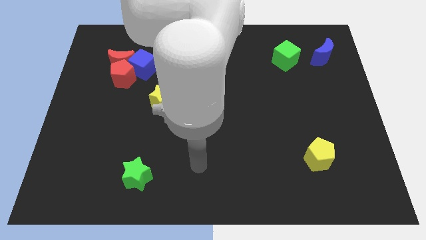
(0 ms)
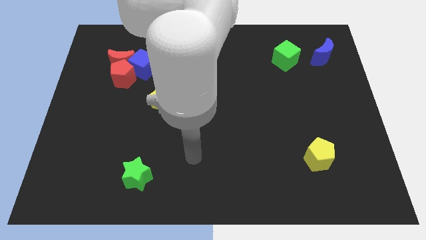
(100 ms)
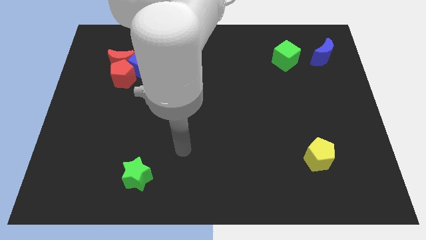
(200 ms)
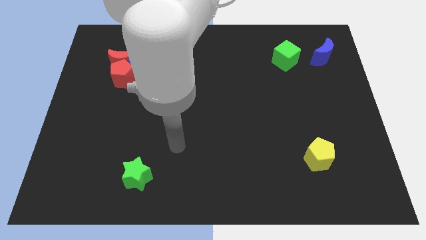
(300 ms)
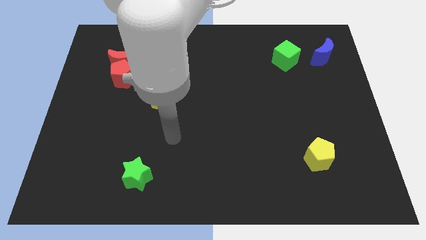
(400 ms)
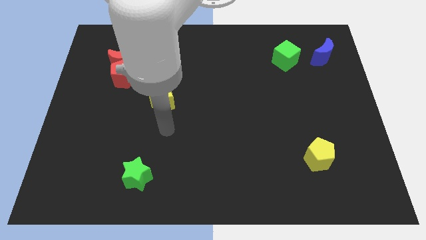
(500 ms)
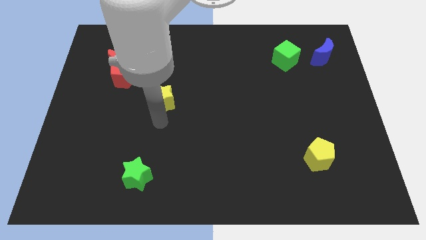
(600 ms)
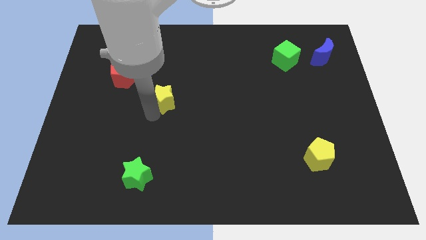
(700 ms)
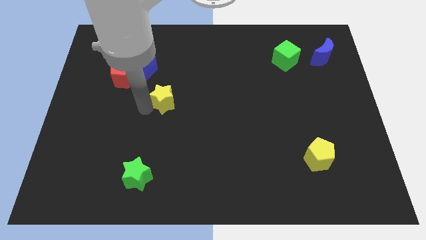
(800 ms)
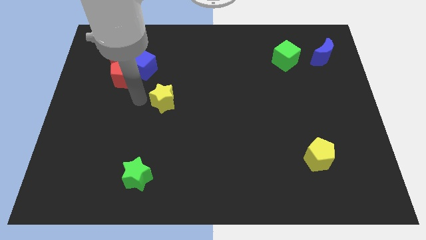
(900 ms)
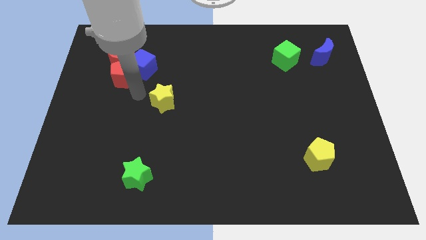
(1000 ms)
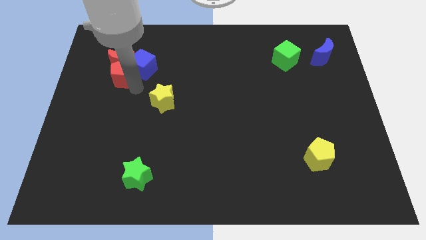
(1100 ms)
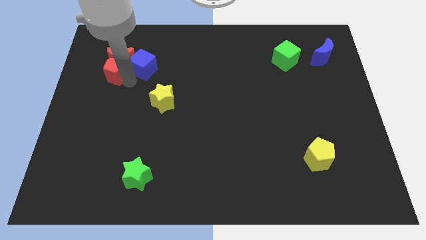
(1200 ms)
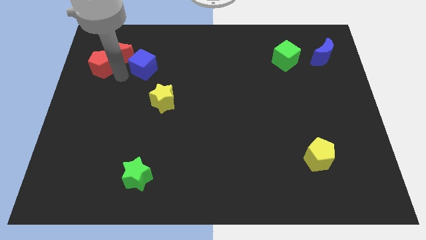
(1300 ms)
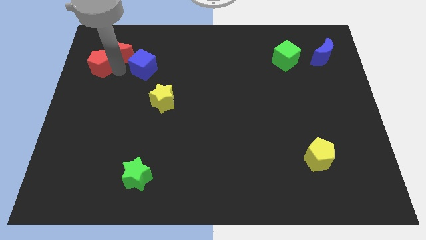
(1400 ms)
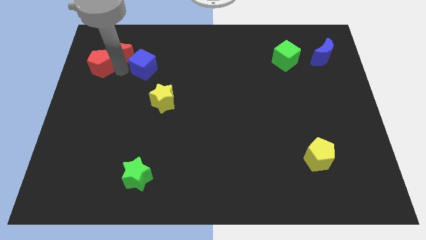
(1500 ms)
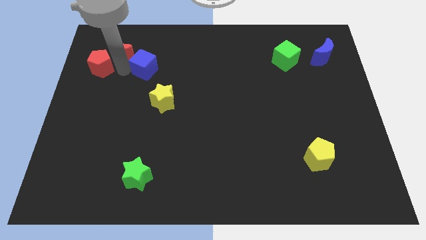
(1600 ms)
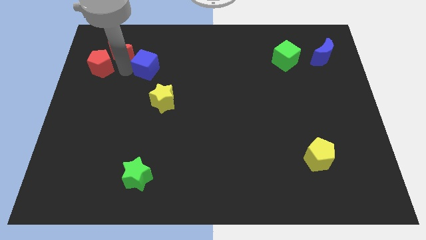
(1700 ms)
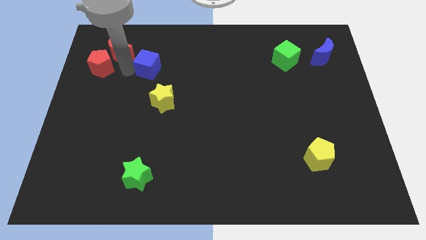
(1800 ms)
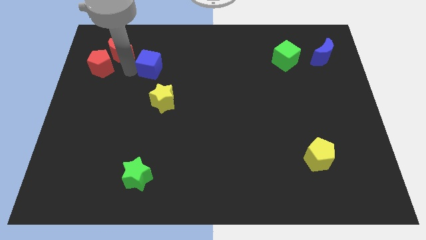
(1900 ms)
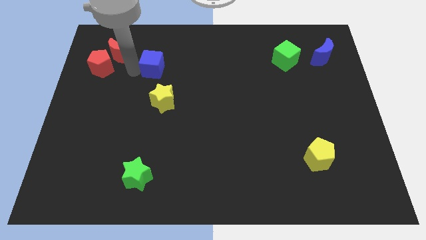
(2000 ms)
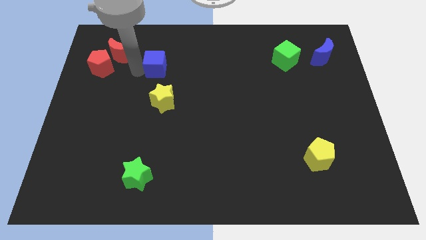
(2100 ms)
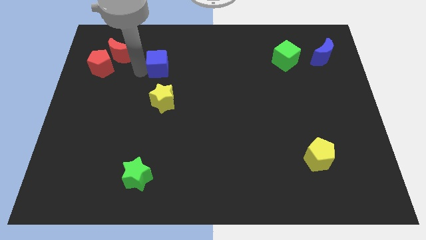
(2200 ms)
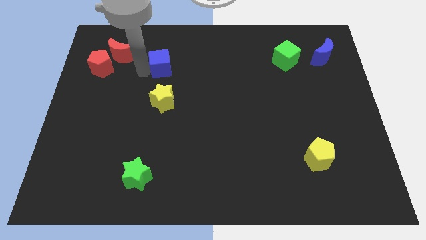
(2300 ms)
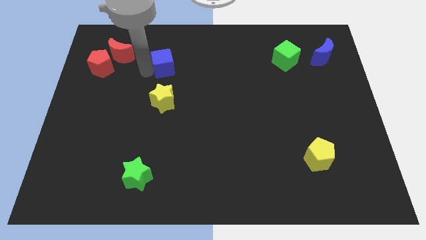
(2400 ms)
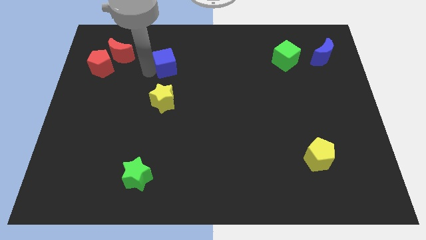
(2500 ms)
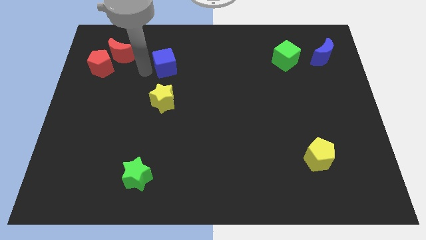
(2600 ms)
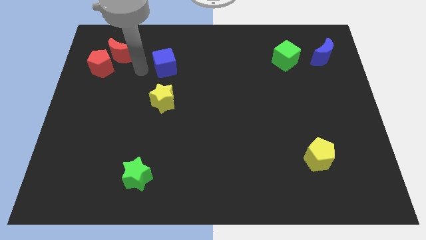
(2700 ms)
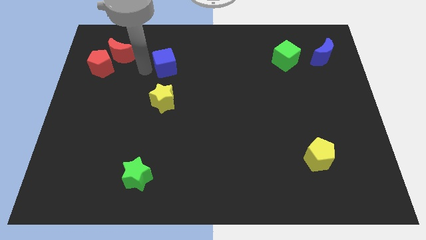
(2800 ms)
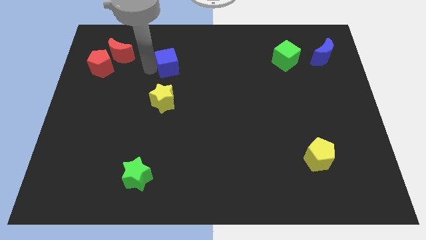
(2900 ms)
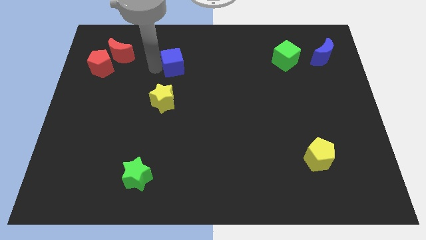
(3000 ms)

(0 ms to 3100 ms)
slightly push the blue cube to the right

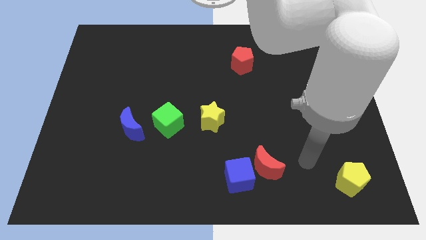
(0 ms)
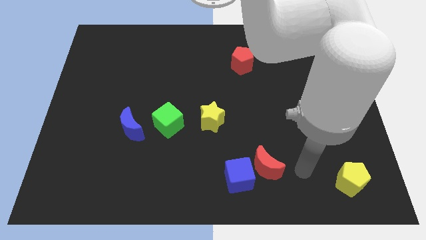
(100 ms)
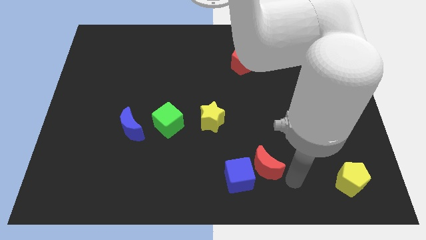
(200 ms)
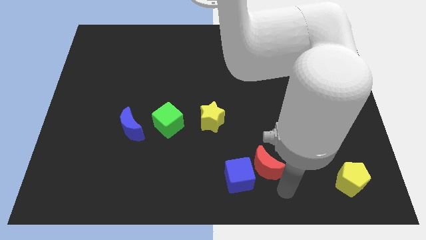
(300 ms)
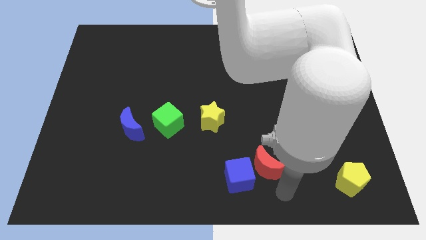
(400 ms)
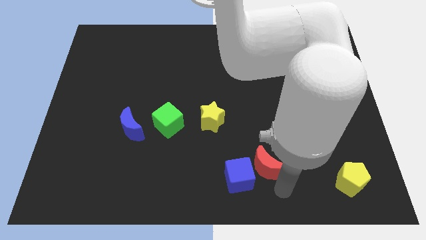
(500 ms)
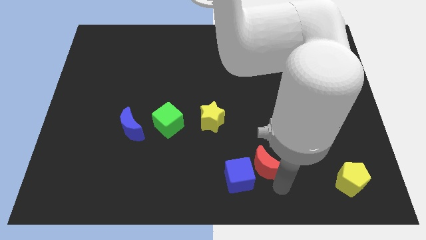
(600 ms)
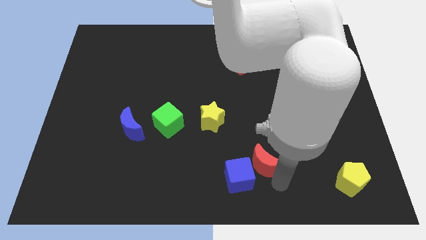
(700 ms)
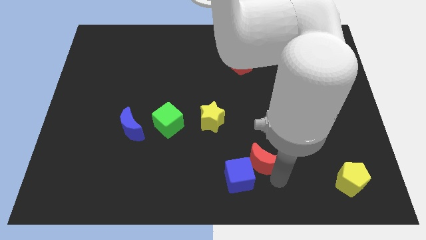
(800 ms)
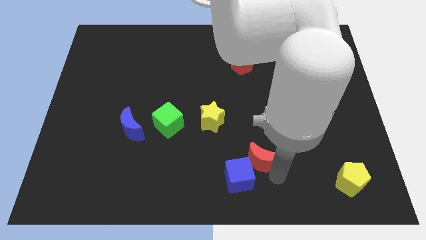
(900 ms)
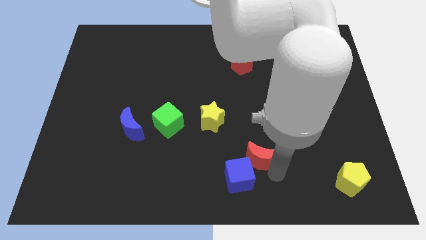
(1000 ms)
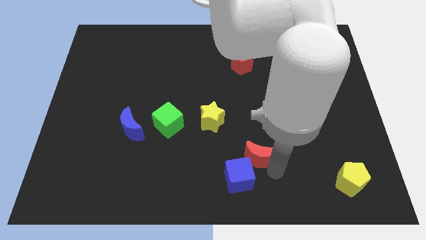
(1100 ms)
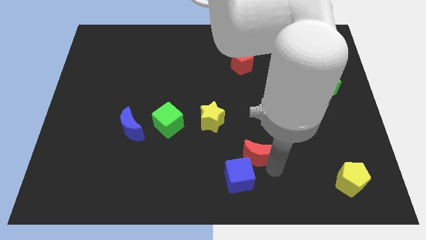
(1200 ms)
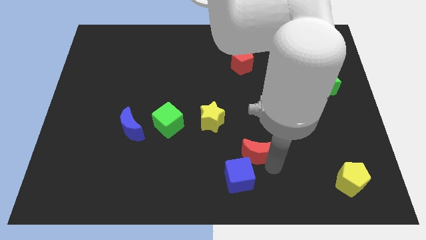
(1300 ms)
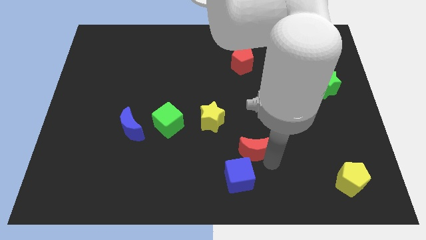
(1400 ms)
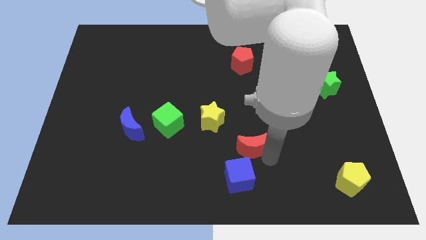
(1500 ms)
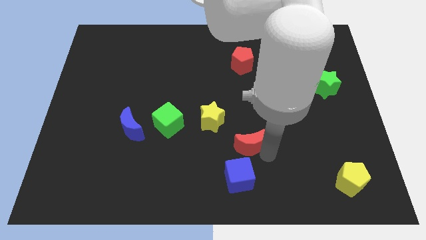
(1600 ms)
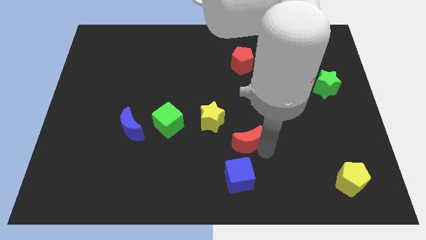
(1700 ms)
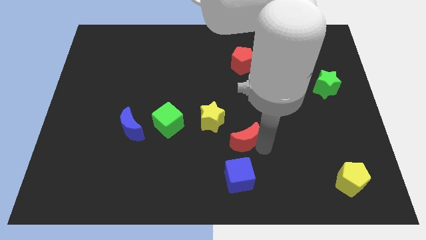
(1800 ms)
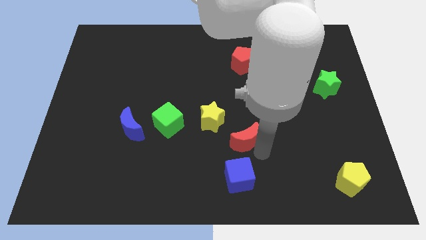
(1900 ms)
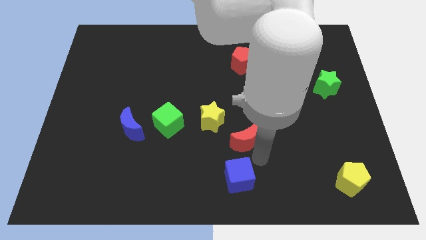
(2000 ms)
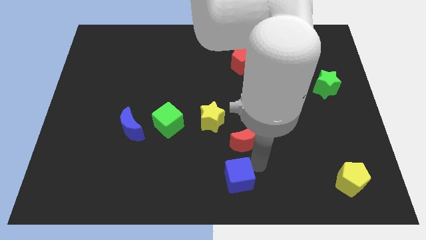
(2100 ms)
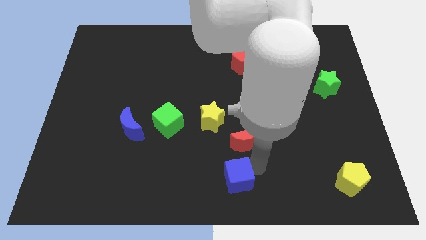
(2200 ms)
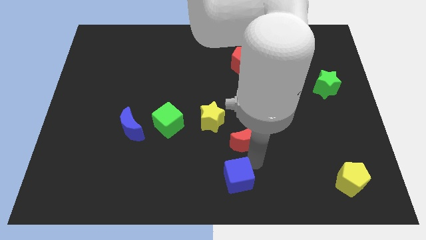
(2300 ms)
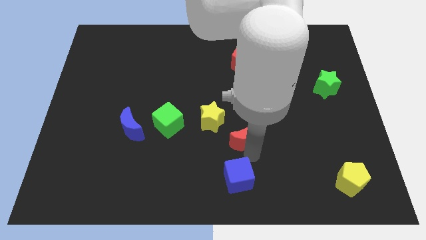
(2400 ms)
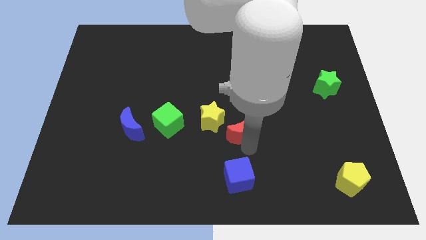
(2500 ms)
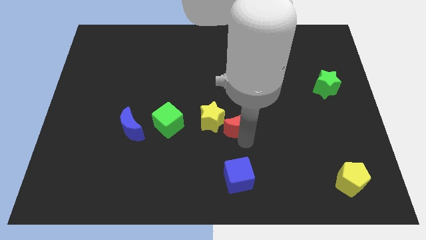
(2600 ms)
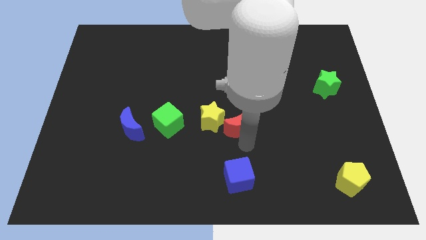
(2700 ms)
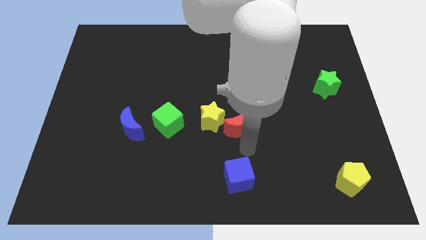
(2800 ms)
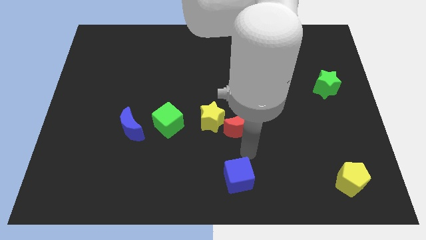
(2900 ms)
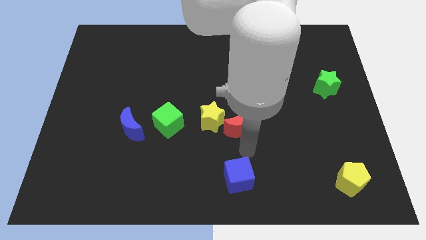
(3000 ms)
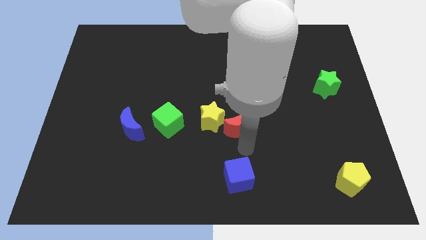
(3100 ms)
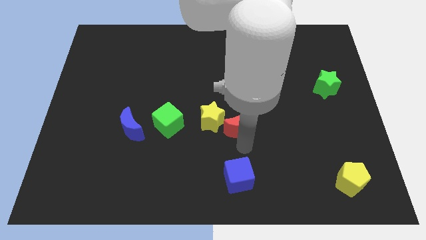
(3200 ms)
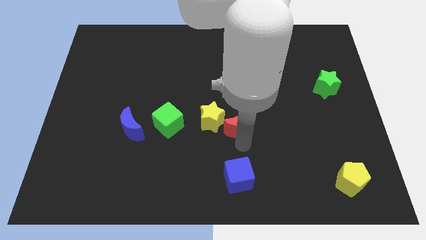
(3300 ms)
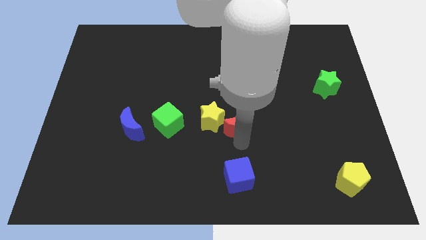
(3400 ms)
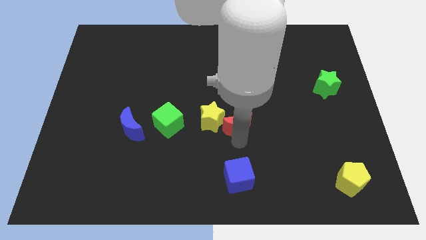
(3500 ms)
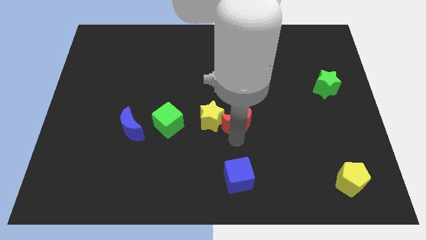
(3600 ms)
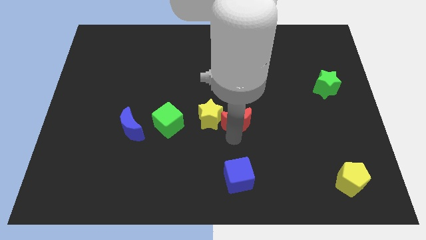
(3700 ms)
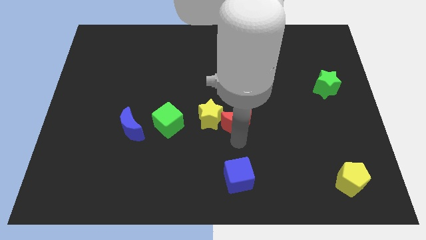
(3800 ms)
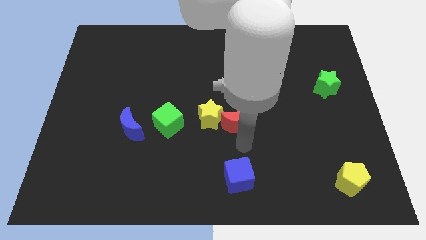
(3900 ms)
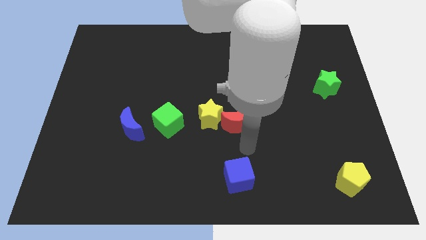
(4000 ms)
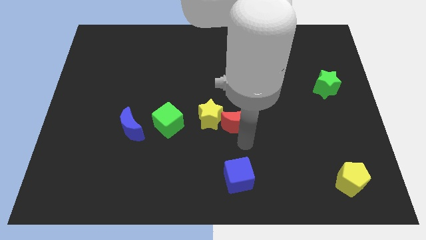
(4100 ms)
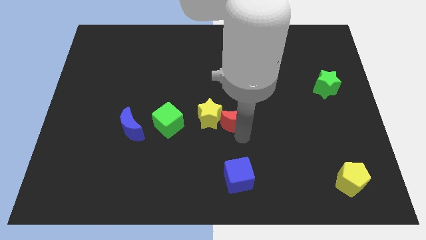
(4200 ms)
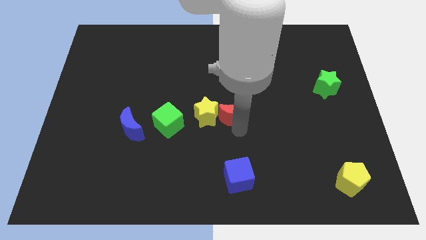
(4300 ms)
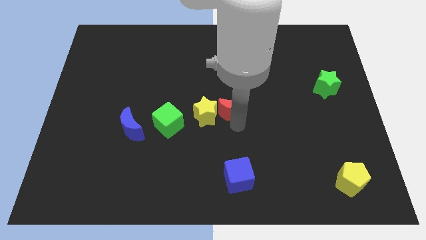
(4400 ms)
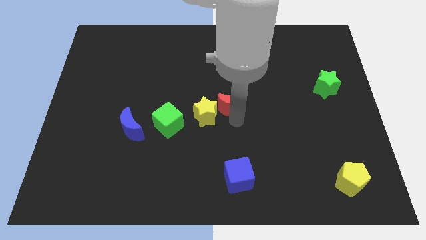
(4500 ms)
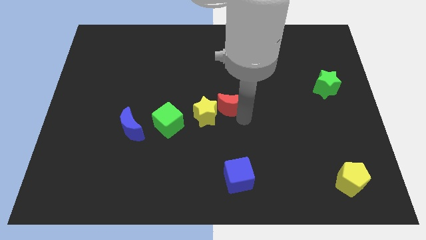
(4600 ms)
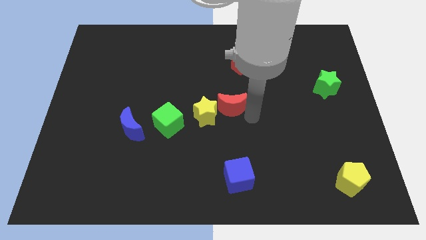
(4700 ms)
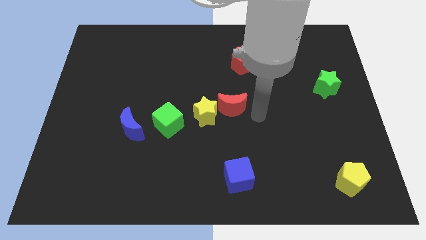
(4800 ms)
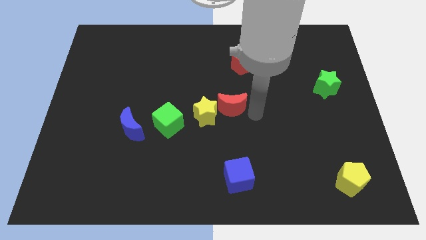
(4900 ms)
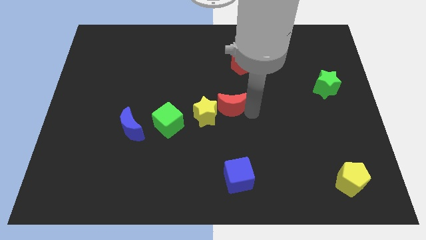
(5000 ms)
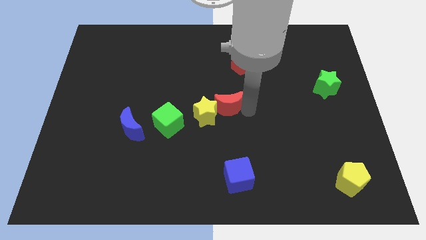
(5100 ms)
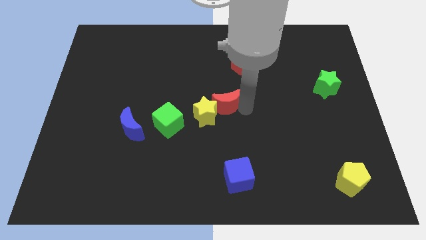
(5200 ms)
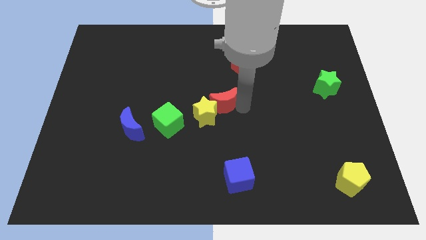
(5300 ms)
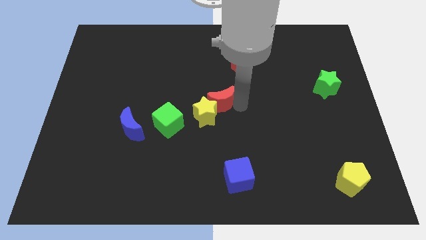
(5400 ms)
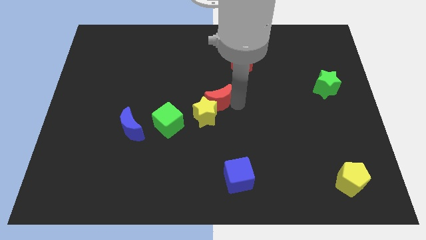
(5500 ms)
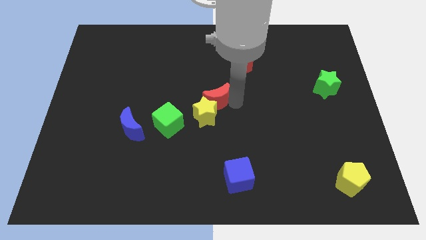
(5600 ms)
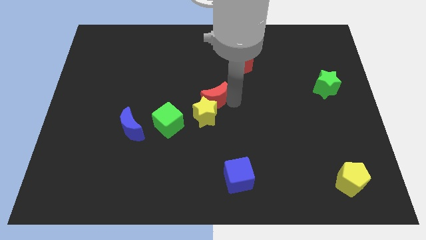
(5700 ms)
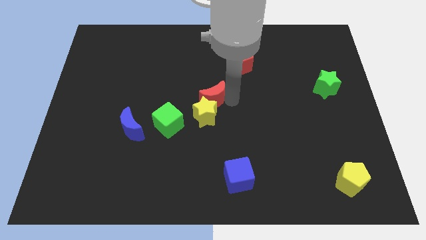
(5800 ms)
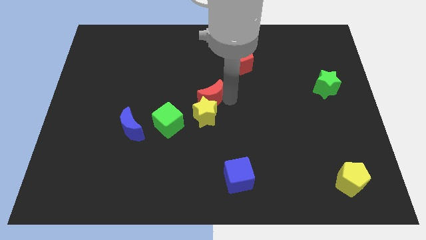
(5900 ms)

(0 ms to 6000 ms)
slide the red moon up and left
